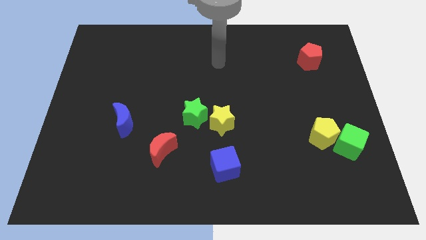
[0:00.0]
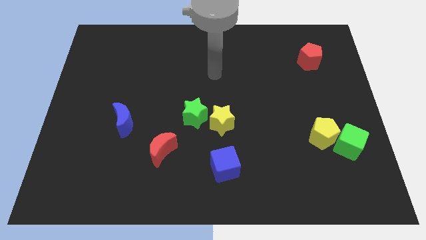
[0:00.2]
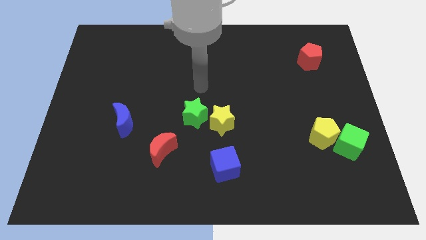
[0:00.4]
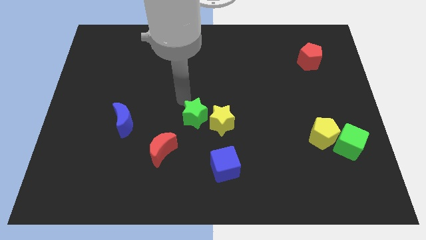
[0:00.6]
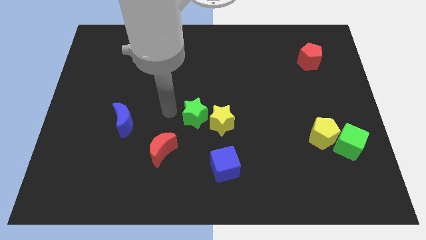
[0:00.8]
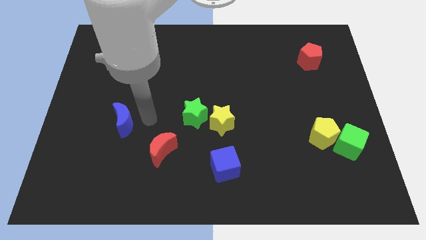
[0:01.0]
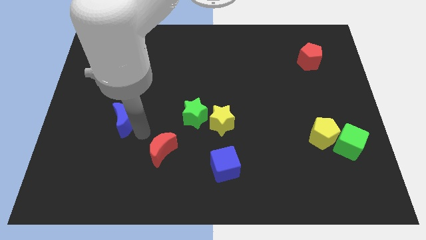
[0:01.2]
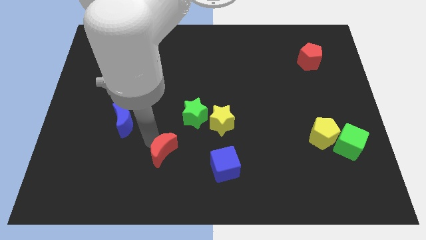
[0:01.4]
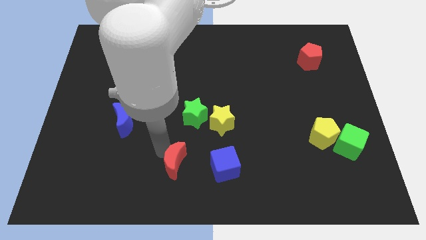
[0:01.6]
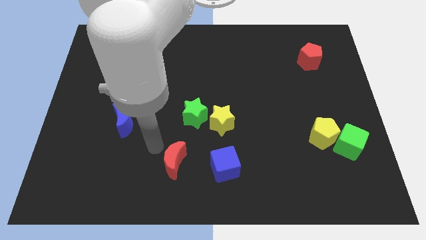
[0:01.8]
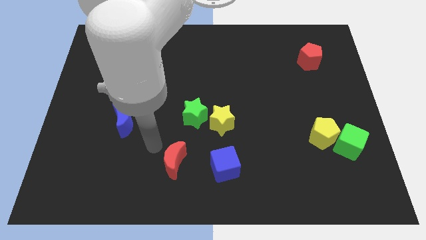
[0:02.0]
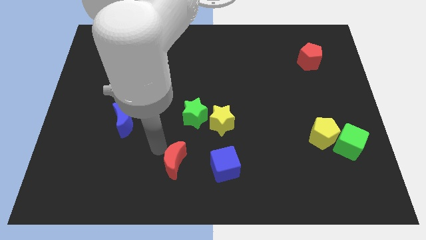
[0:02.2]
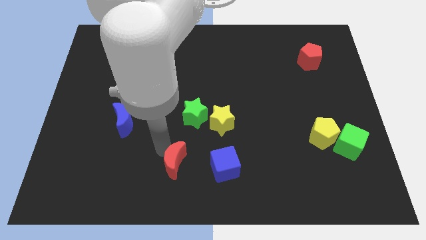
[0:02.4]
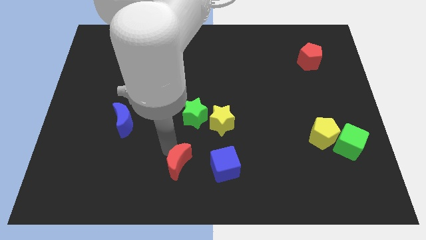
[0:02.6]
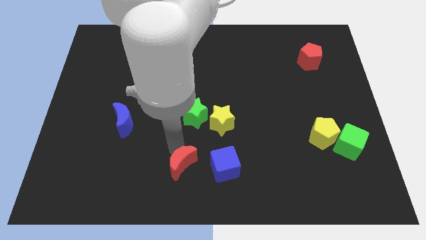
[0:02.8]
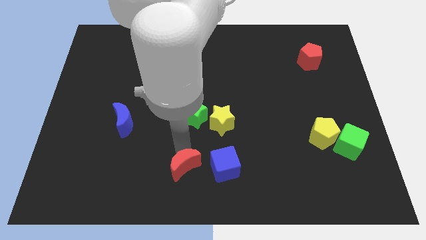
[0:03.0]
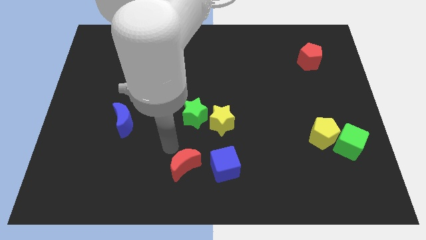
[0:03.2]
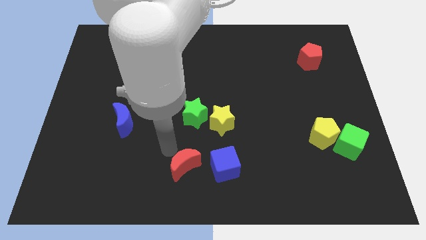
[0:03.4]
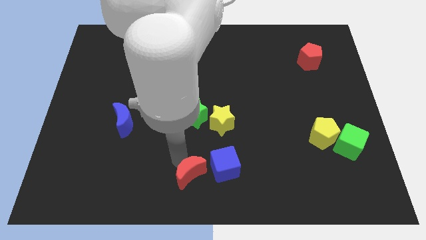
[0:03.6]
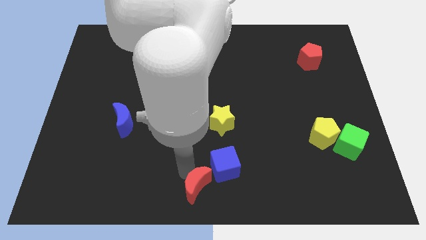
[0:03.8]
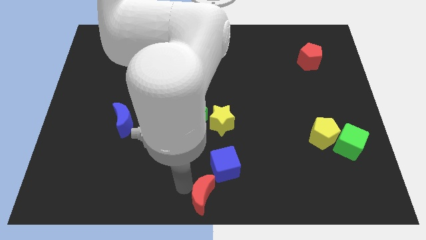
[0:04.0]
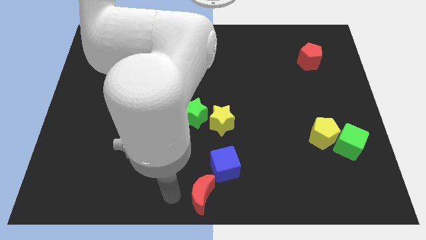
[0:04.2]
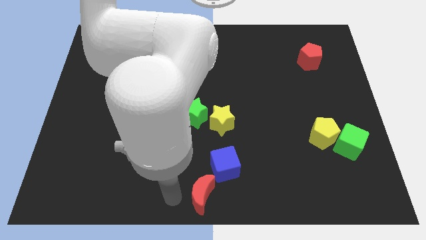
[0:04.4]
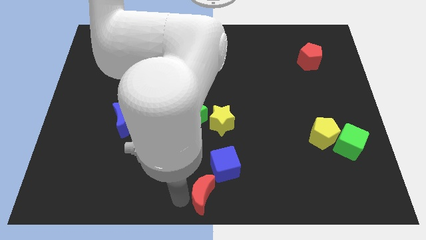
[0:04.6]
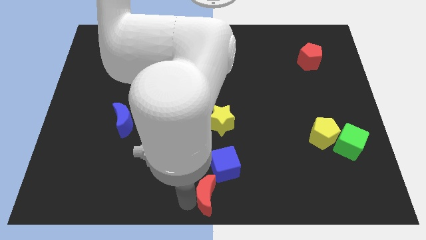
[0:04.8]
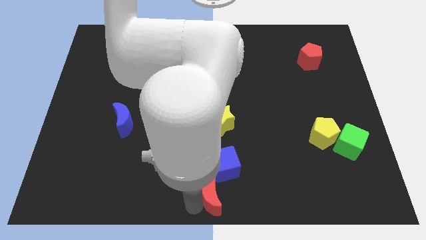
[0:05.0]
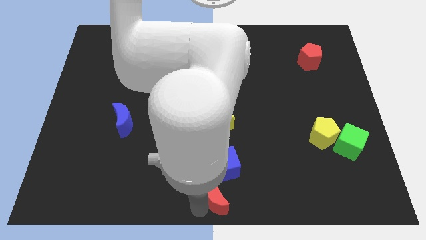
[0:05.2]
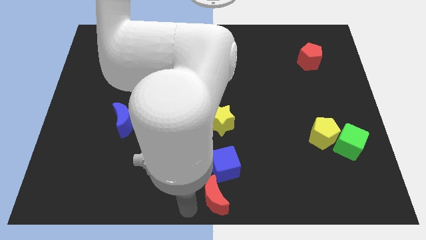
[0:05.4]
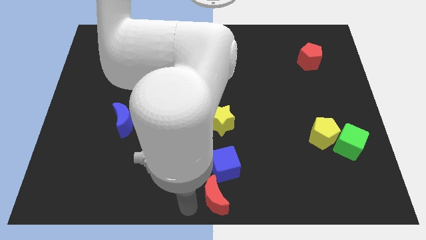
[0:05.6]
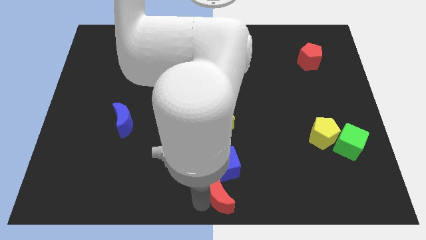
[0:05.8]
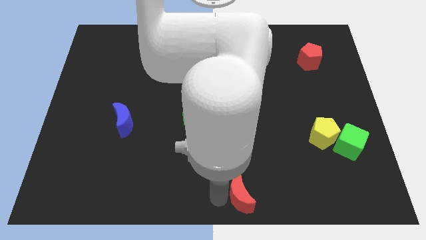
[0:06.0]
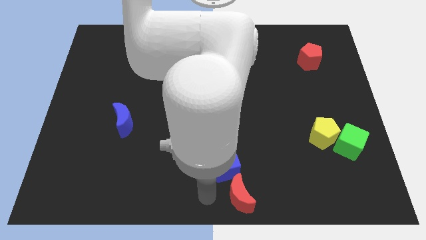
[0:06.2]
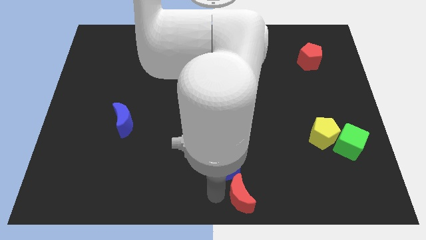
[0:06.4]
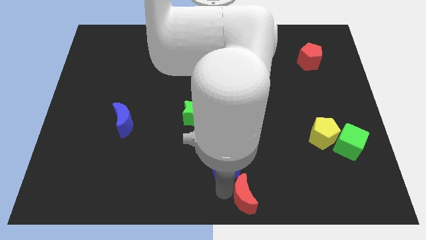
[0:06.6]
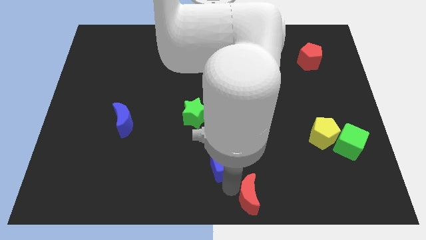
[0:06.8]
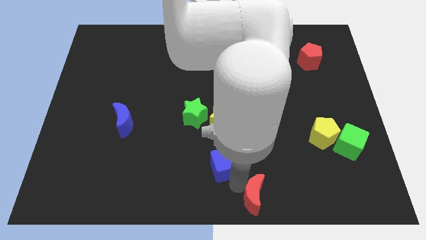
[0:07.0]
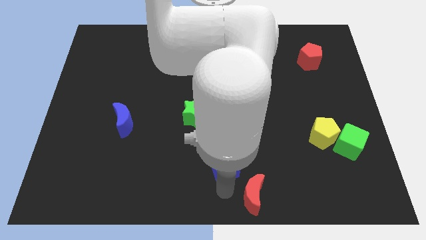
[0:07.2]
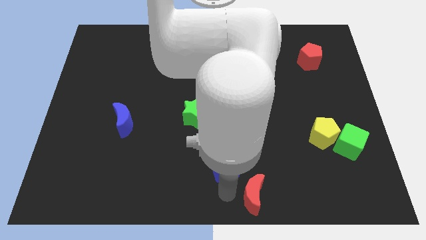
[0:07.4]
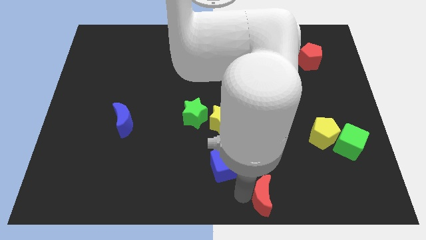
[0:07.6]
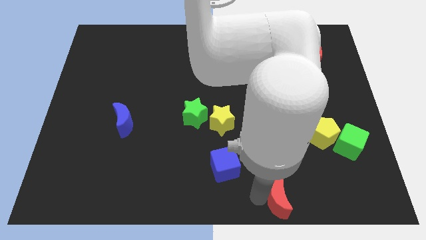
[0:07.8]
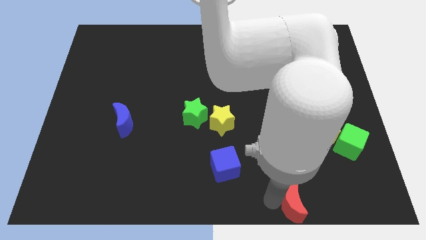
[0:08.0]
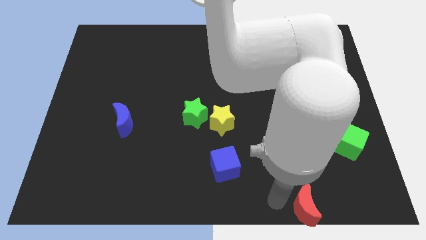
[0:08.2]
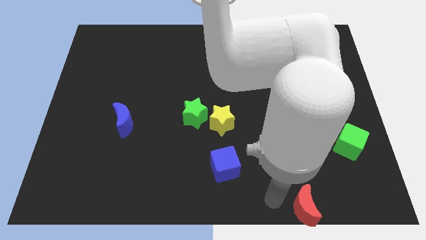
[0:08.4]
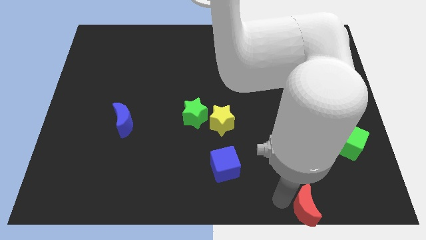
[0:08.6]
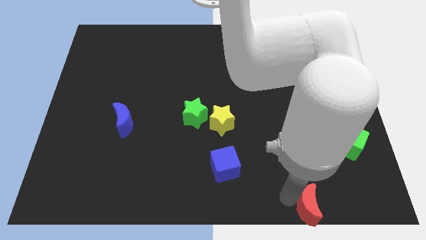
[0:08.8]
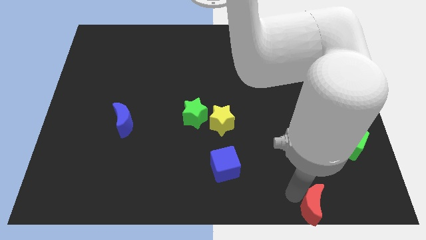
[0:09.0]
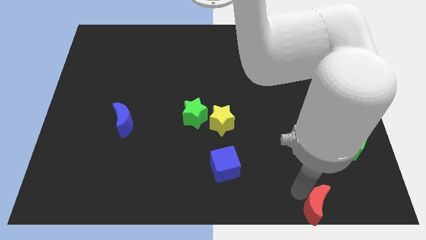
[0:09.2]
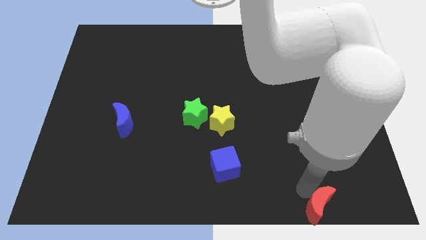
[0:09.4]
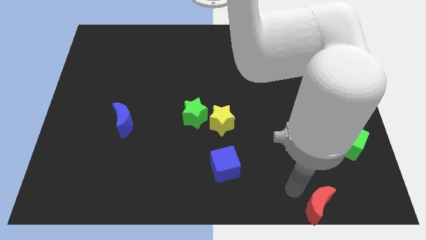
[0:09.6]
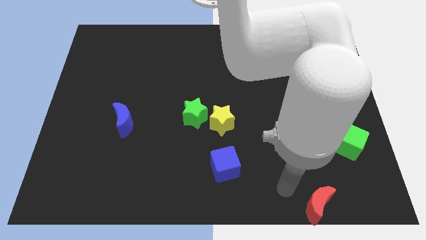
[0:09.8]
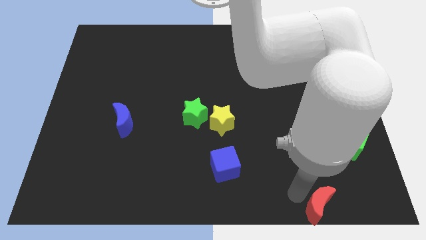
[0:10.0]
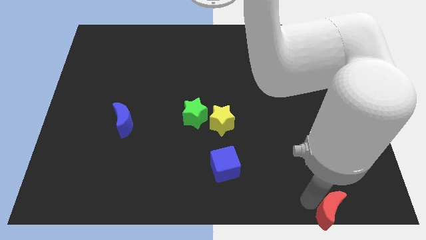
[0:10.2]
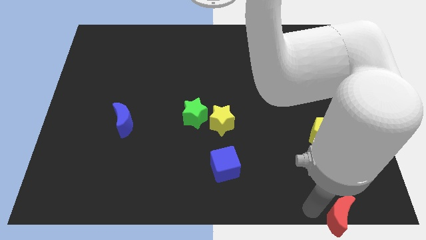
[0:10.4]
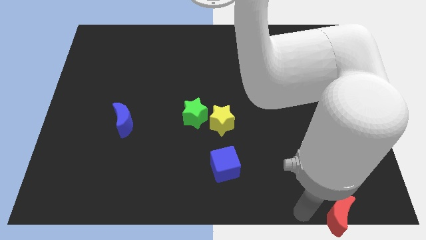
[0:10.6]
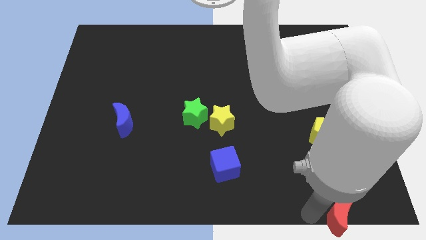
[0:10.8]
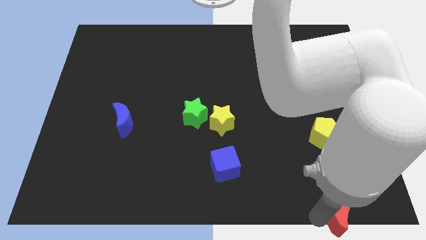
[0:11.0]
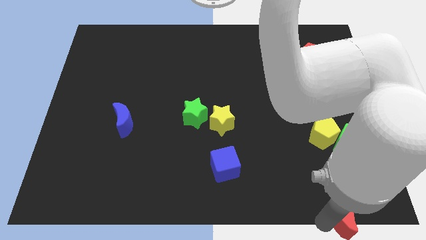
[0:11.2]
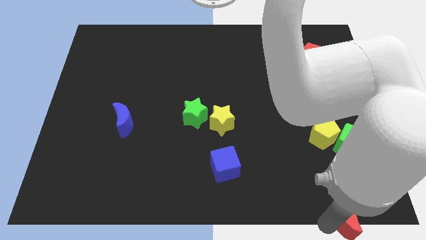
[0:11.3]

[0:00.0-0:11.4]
slide the red moon to the lower right corner
